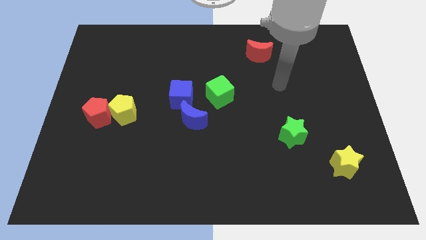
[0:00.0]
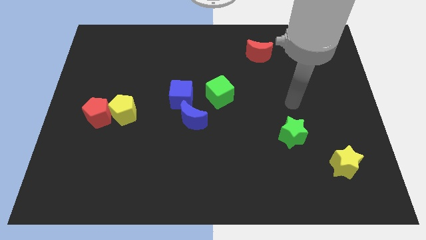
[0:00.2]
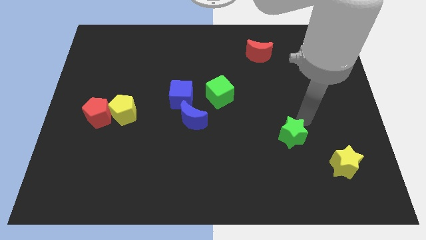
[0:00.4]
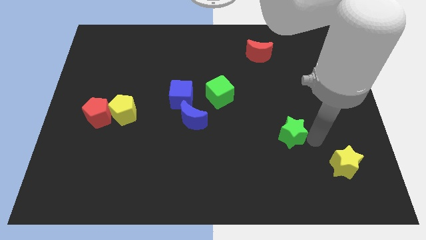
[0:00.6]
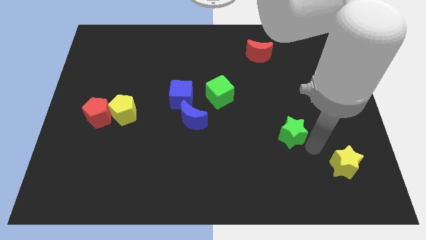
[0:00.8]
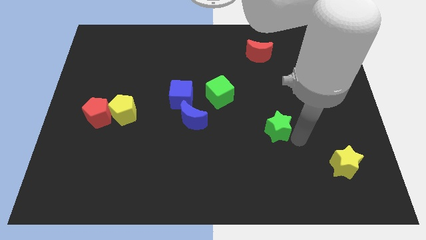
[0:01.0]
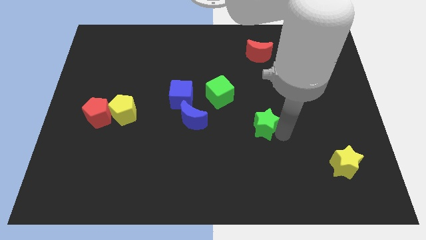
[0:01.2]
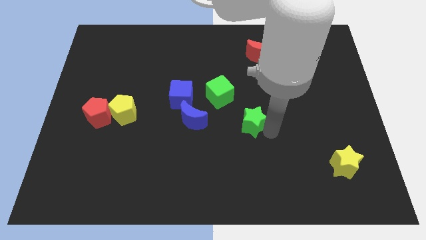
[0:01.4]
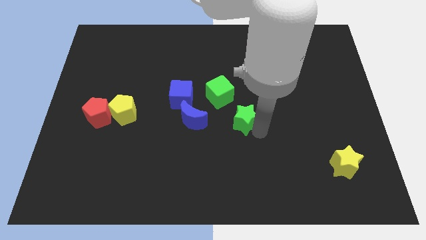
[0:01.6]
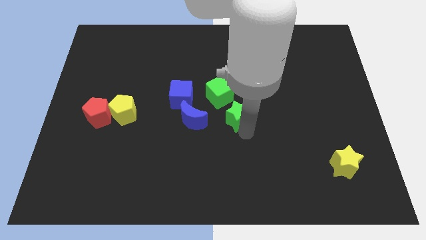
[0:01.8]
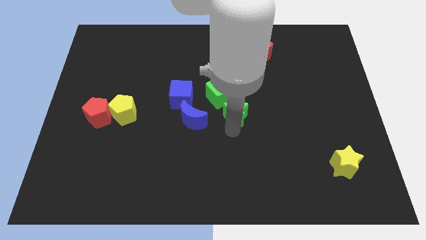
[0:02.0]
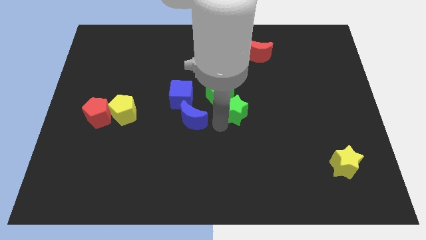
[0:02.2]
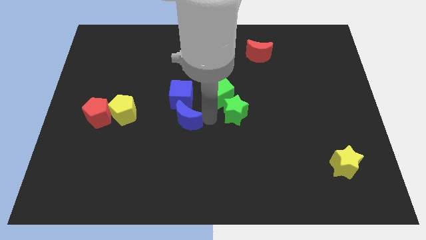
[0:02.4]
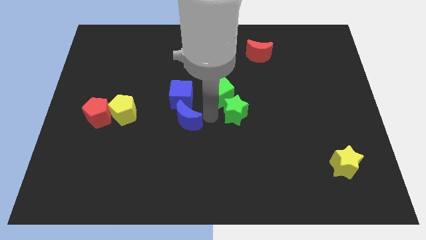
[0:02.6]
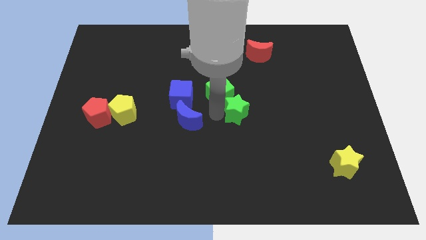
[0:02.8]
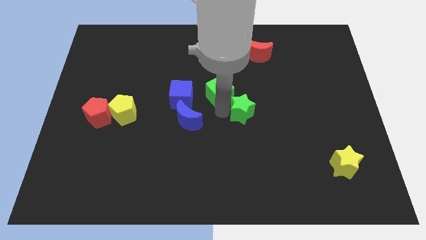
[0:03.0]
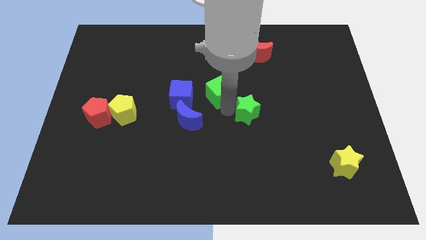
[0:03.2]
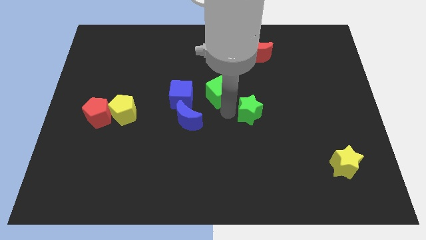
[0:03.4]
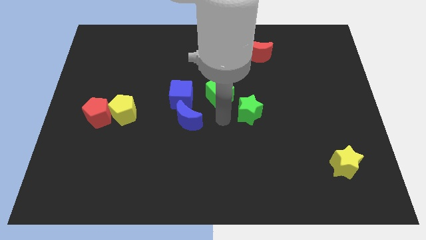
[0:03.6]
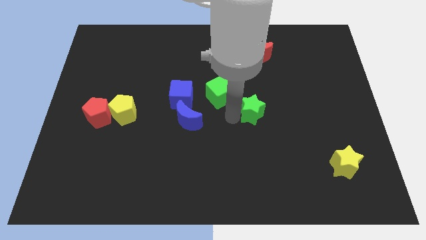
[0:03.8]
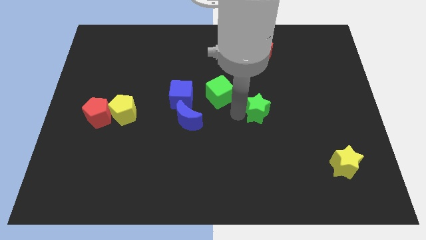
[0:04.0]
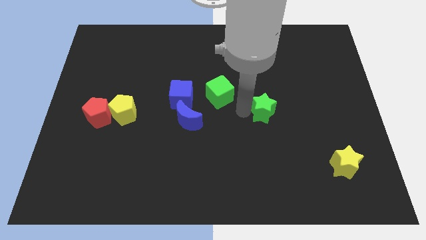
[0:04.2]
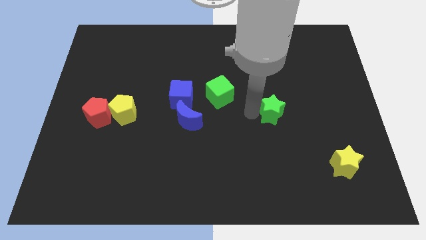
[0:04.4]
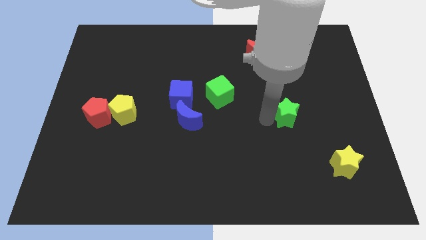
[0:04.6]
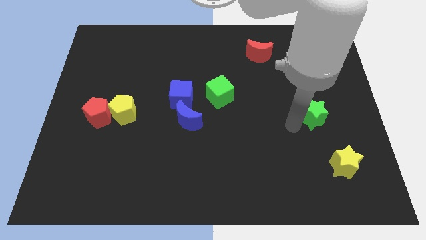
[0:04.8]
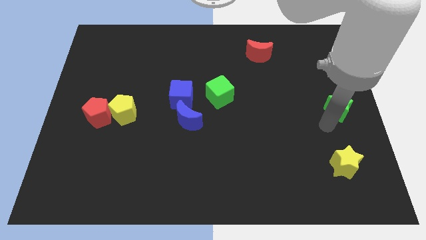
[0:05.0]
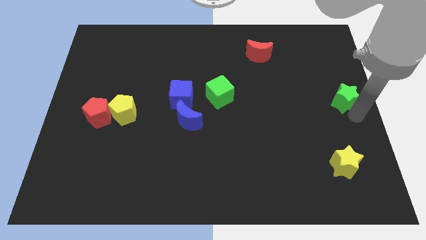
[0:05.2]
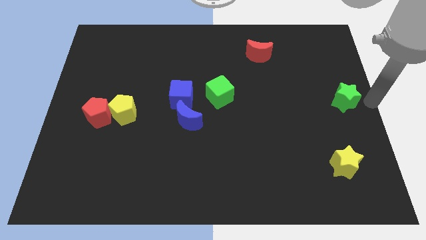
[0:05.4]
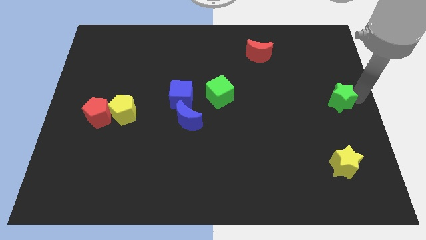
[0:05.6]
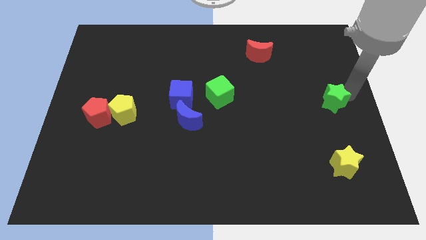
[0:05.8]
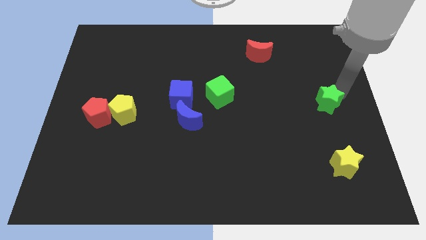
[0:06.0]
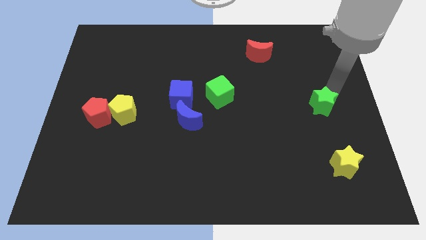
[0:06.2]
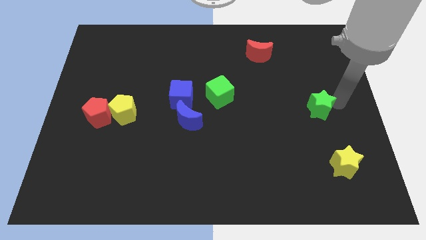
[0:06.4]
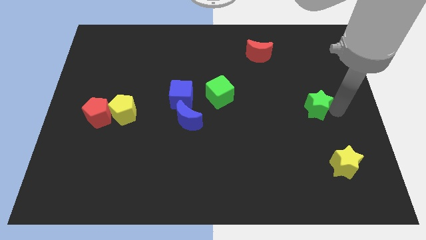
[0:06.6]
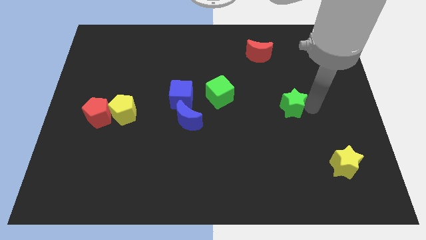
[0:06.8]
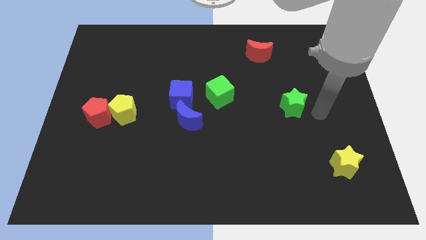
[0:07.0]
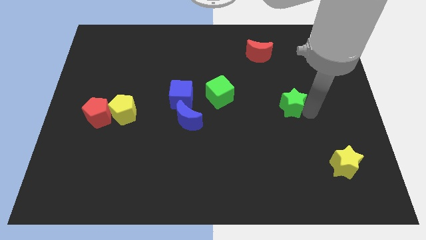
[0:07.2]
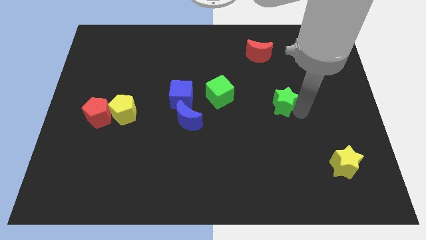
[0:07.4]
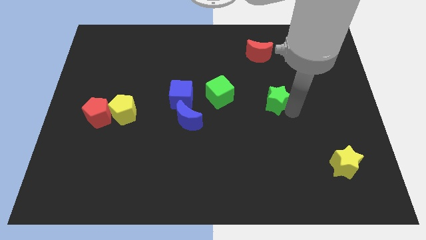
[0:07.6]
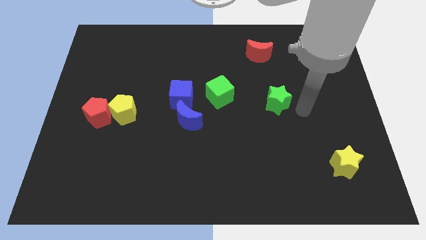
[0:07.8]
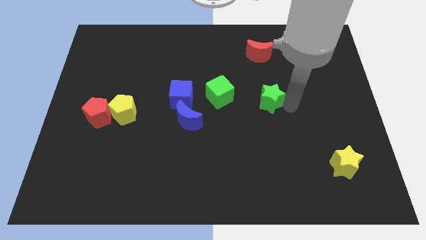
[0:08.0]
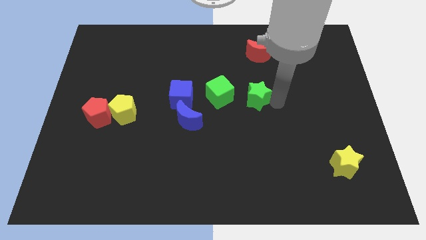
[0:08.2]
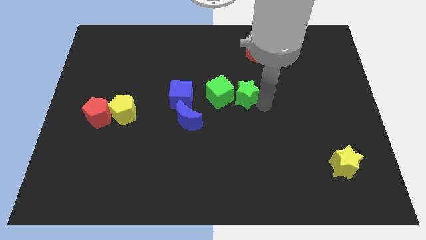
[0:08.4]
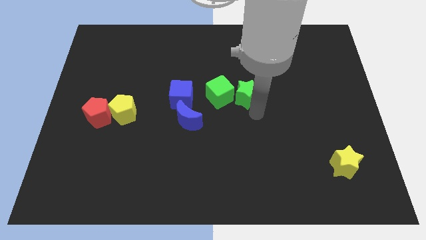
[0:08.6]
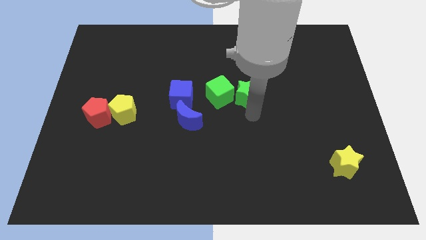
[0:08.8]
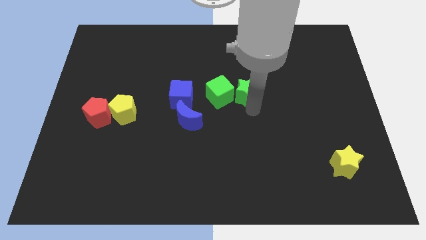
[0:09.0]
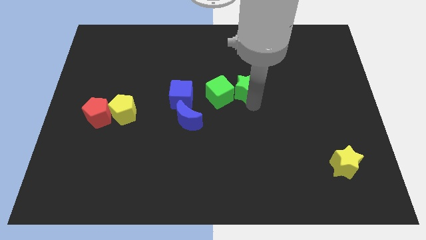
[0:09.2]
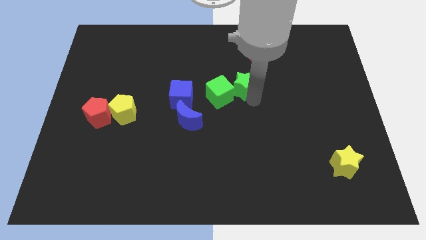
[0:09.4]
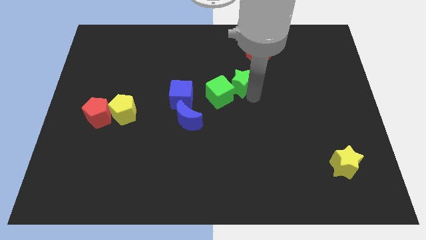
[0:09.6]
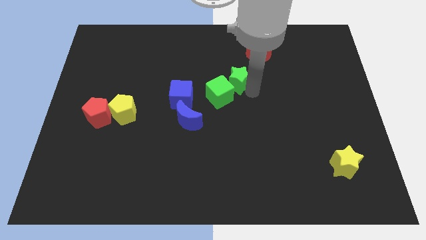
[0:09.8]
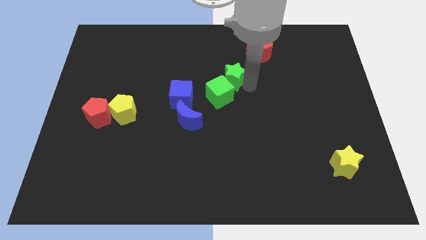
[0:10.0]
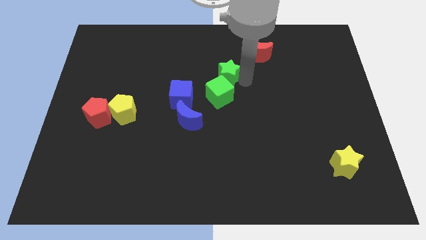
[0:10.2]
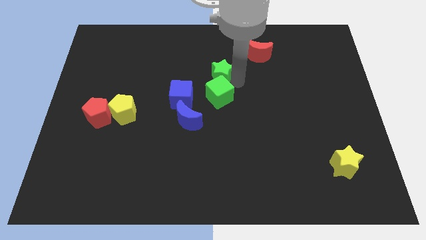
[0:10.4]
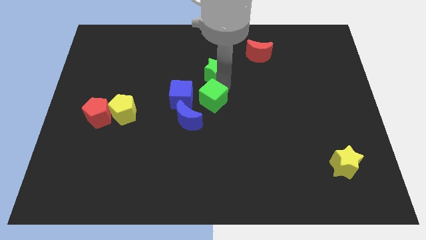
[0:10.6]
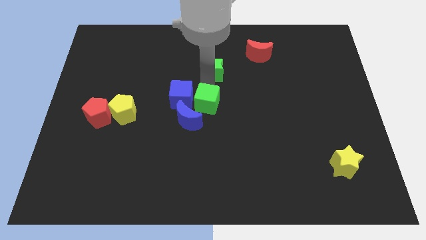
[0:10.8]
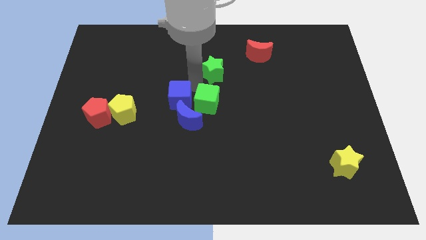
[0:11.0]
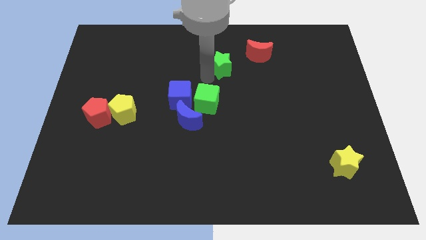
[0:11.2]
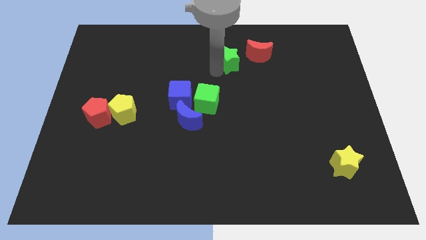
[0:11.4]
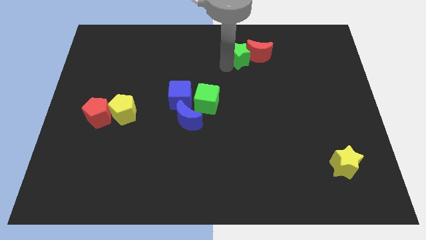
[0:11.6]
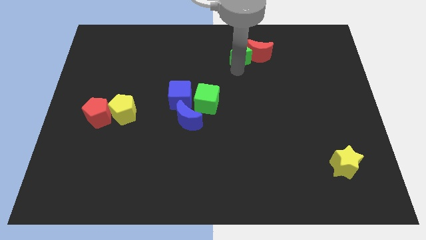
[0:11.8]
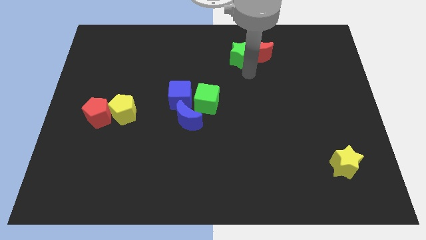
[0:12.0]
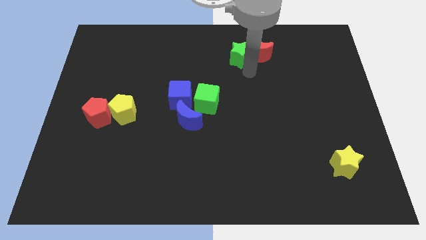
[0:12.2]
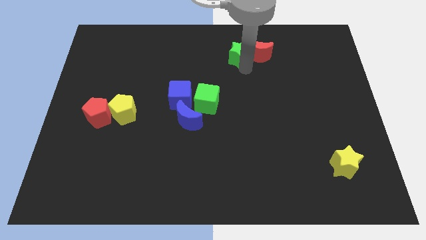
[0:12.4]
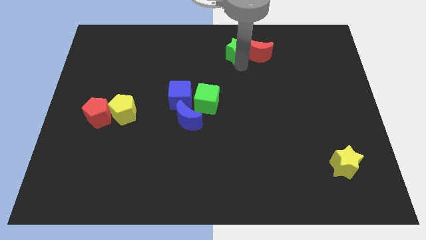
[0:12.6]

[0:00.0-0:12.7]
put the green star to the top
